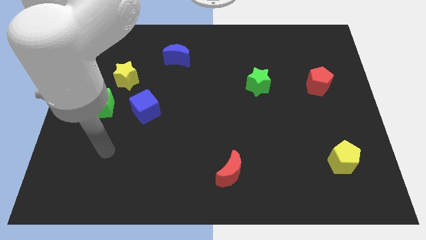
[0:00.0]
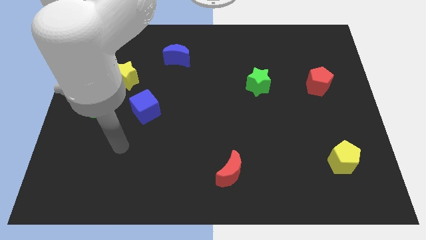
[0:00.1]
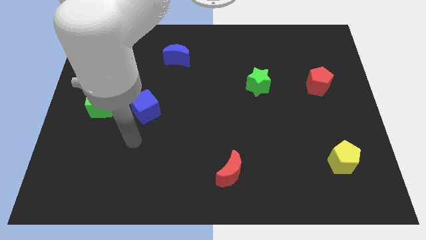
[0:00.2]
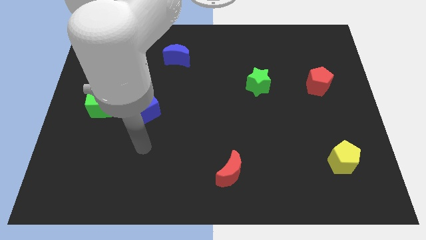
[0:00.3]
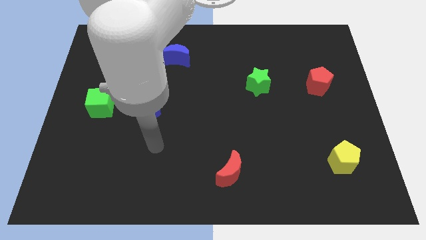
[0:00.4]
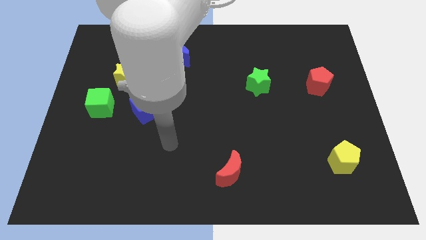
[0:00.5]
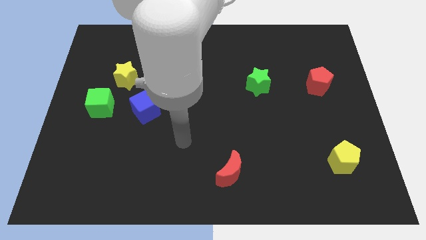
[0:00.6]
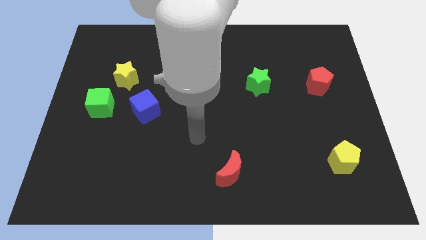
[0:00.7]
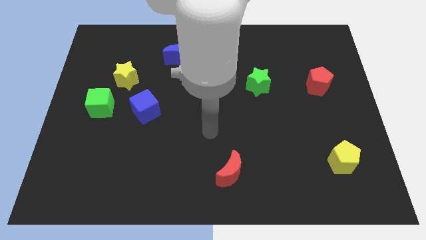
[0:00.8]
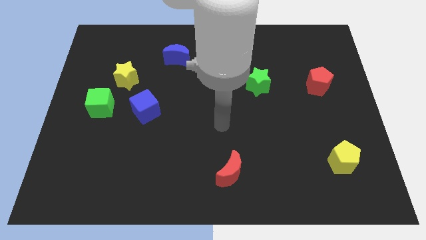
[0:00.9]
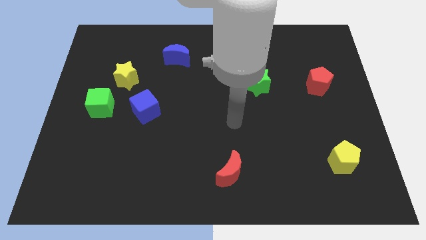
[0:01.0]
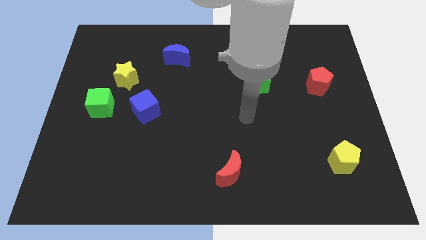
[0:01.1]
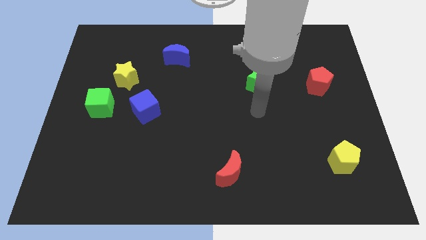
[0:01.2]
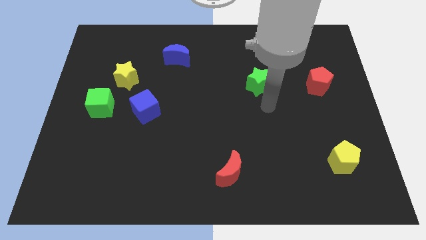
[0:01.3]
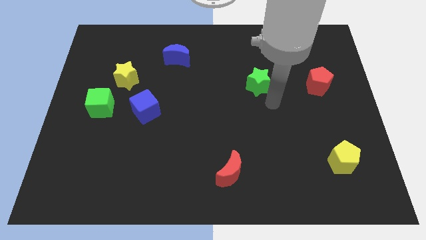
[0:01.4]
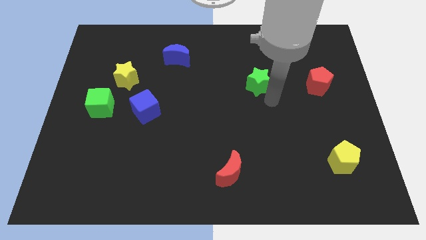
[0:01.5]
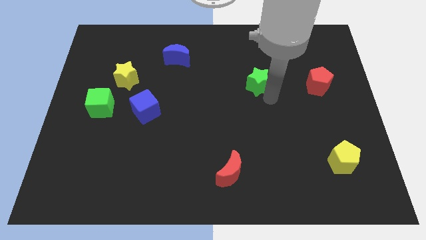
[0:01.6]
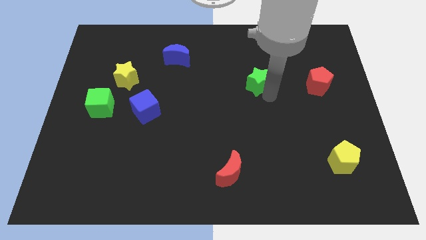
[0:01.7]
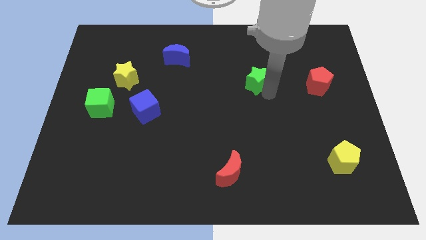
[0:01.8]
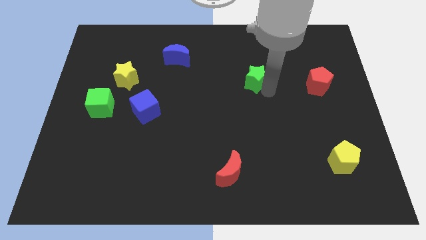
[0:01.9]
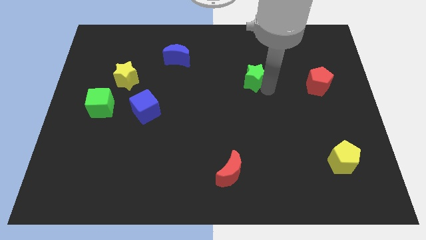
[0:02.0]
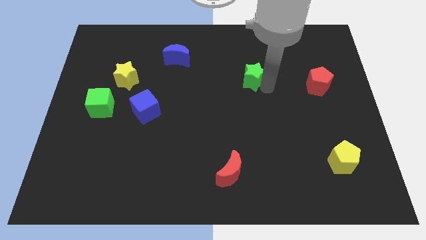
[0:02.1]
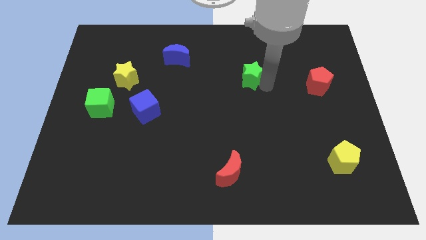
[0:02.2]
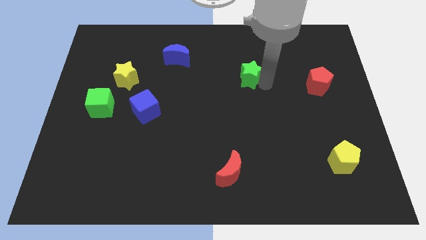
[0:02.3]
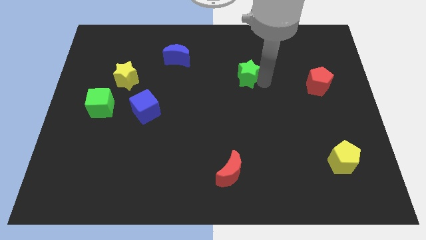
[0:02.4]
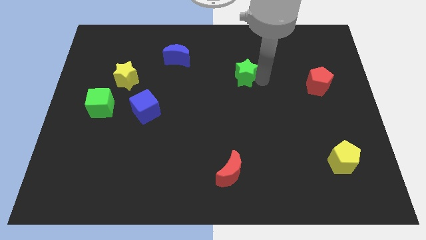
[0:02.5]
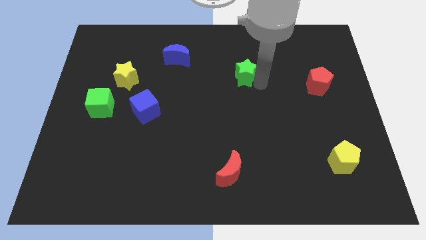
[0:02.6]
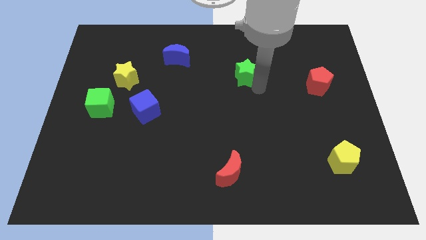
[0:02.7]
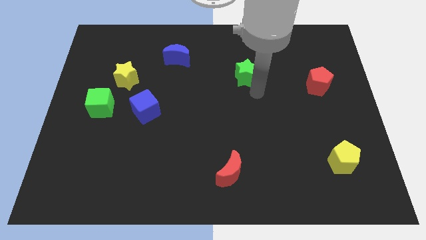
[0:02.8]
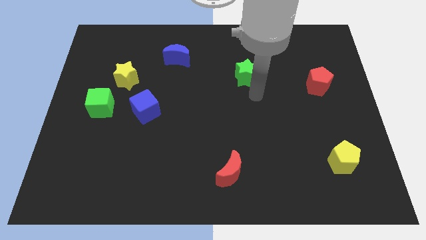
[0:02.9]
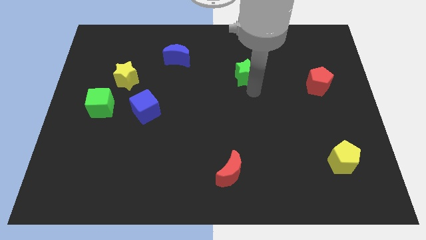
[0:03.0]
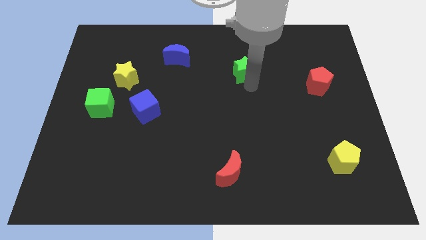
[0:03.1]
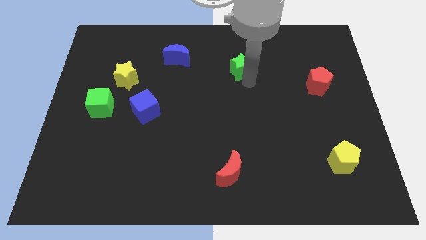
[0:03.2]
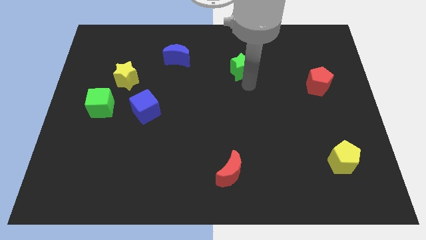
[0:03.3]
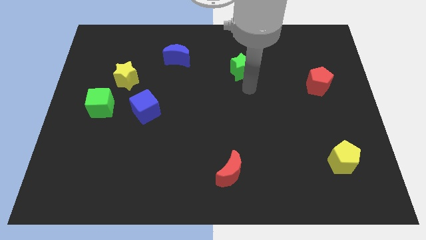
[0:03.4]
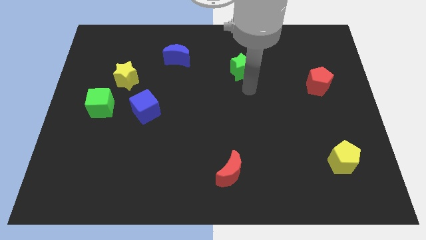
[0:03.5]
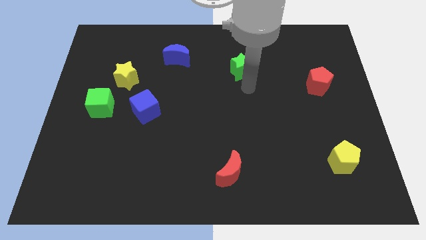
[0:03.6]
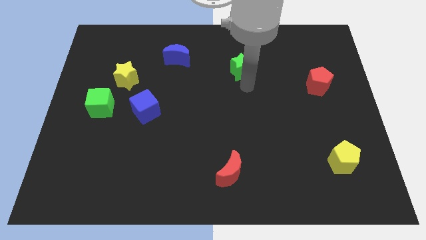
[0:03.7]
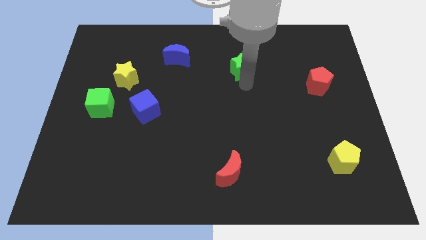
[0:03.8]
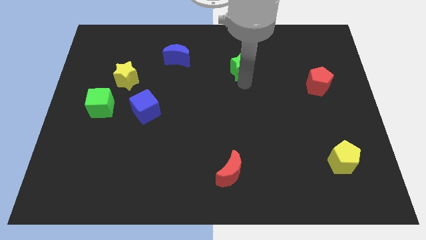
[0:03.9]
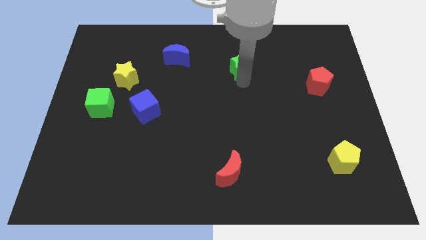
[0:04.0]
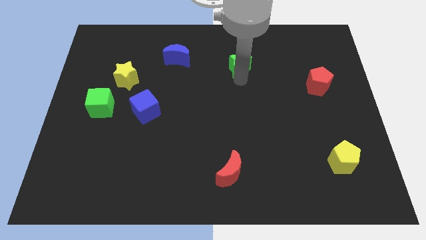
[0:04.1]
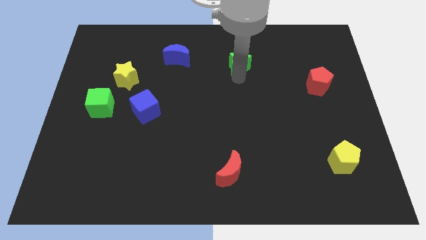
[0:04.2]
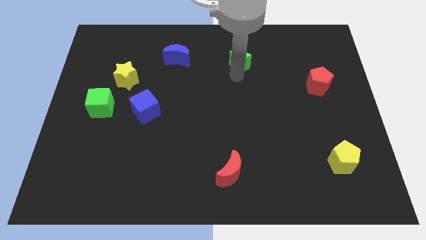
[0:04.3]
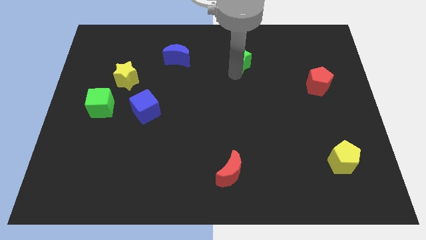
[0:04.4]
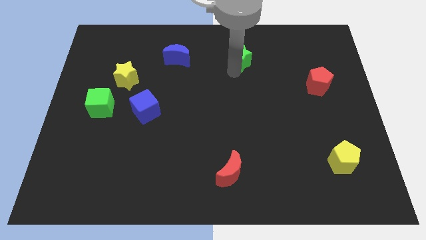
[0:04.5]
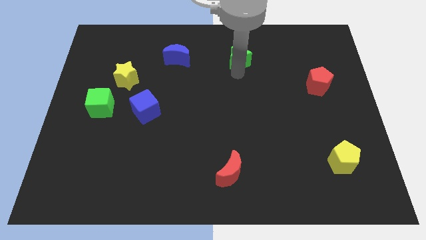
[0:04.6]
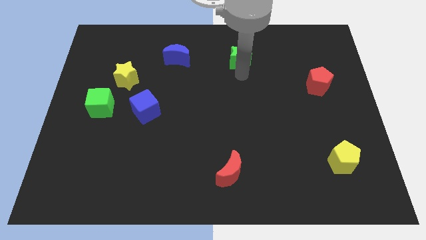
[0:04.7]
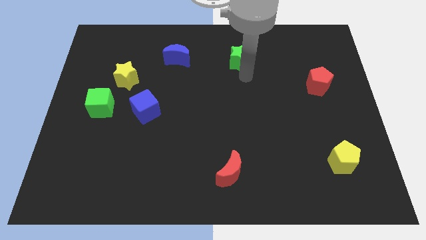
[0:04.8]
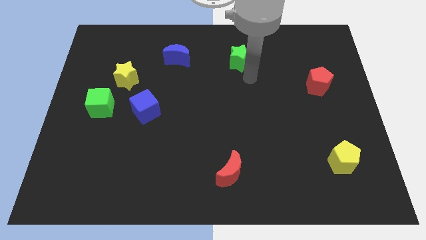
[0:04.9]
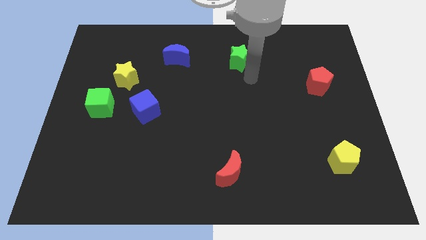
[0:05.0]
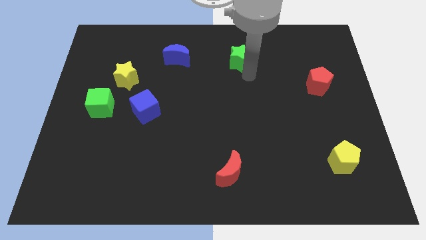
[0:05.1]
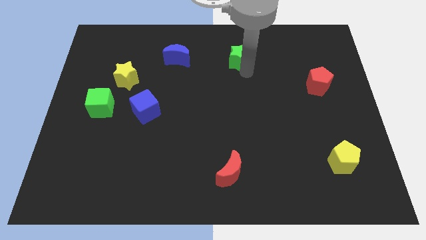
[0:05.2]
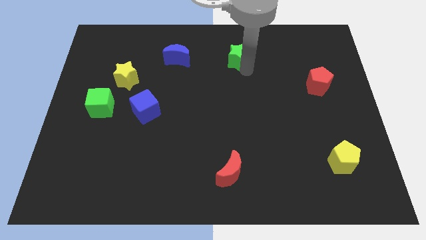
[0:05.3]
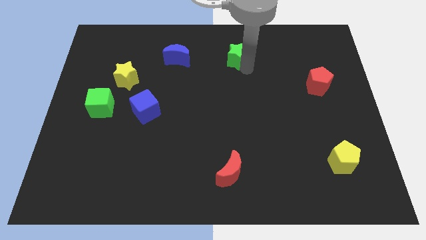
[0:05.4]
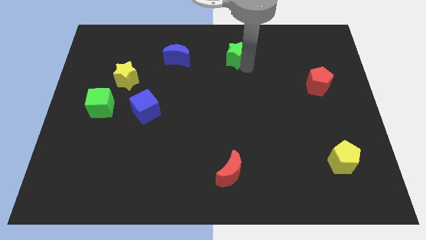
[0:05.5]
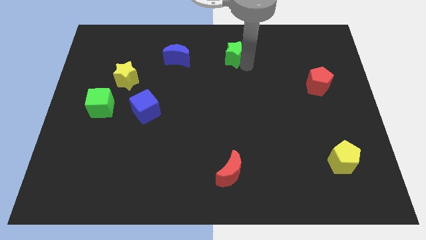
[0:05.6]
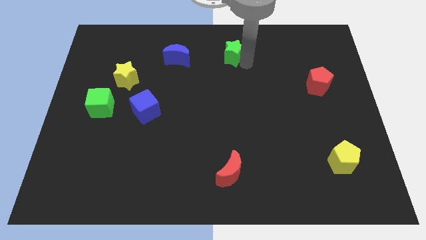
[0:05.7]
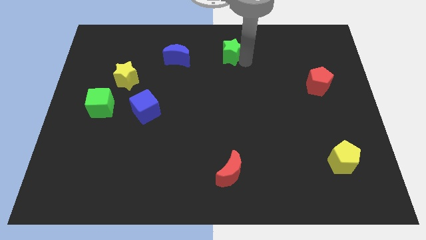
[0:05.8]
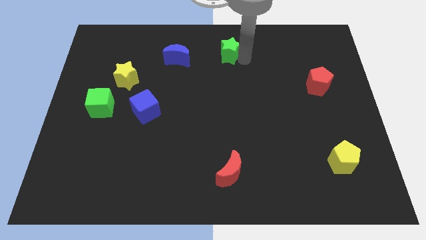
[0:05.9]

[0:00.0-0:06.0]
slide the green star to the top

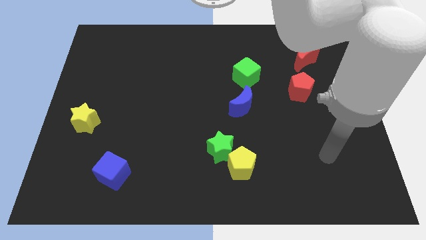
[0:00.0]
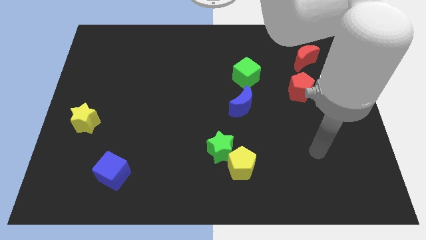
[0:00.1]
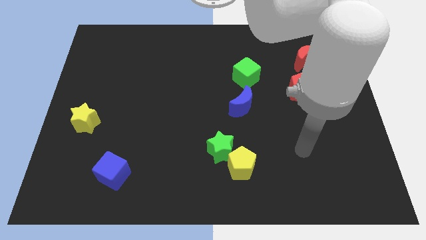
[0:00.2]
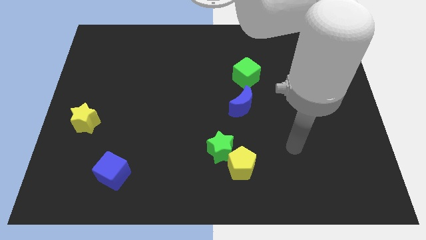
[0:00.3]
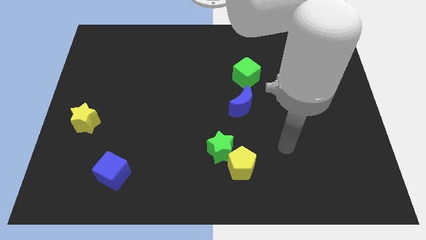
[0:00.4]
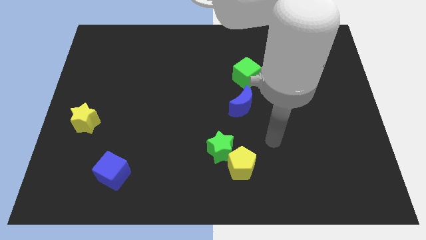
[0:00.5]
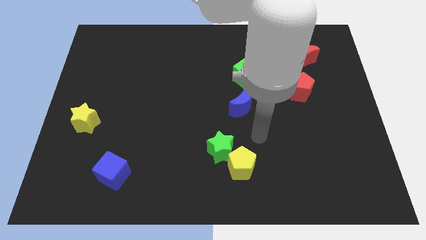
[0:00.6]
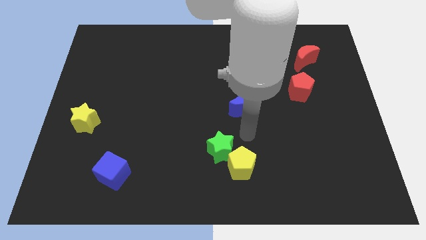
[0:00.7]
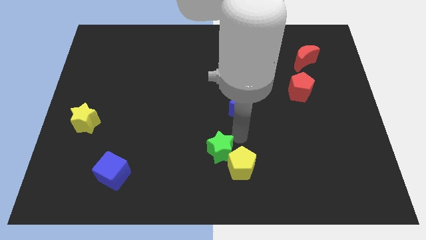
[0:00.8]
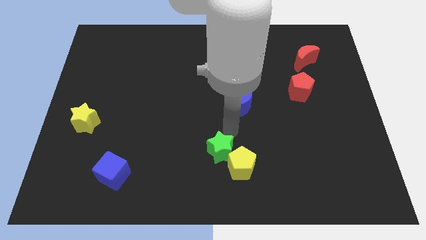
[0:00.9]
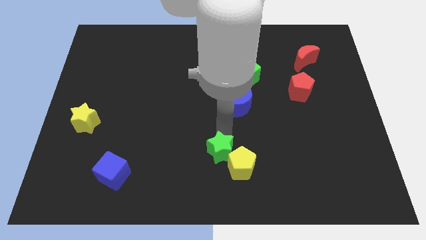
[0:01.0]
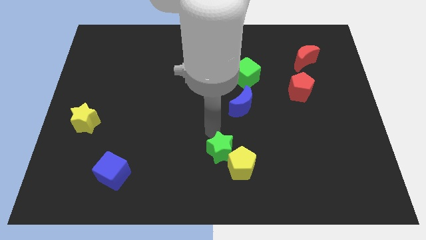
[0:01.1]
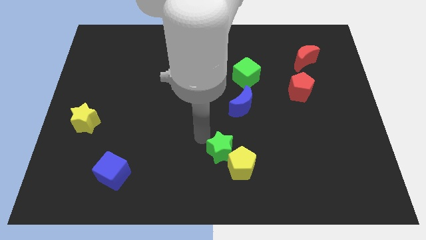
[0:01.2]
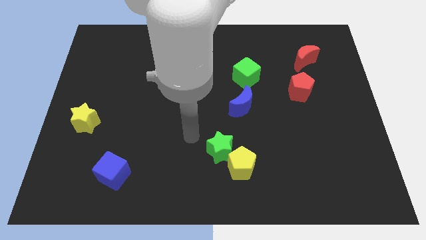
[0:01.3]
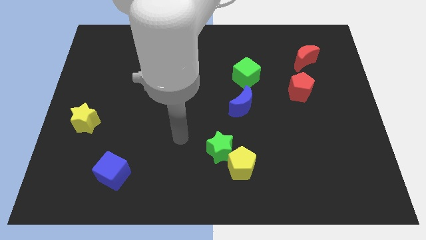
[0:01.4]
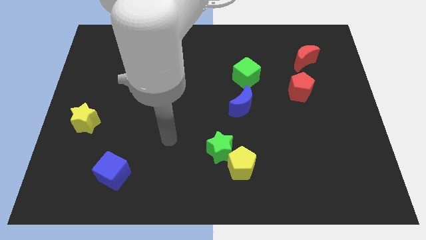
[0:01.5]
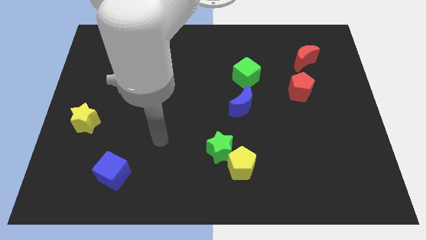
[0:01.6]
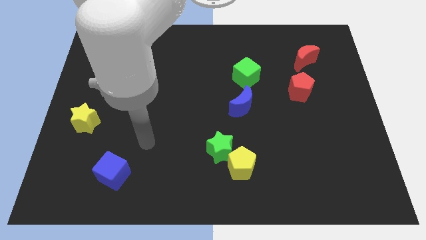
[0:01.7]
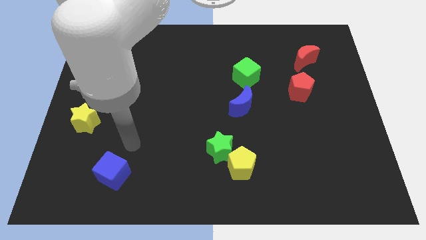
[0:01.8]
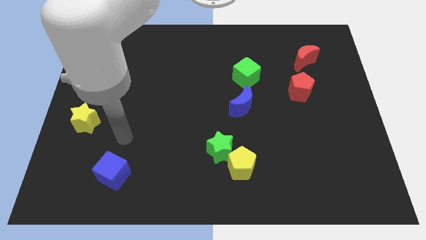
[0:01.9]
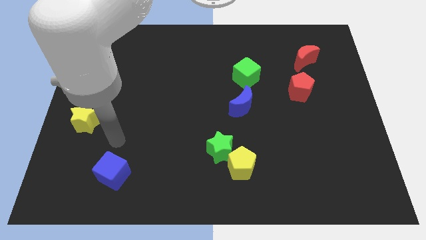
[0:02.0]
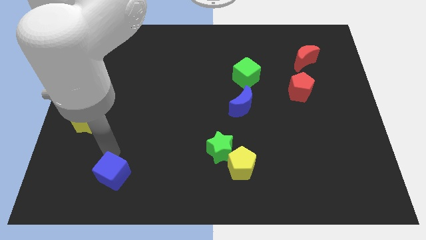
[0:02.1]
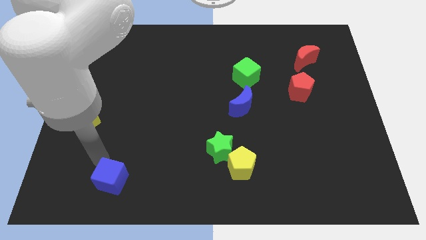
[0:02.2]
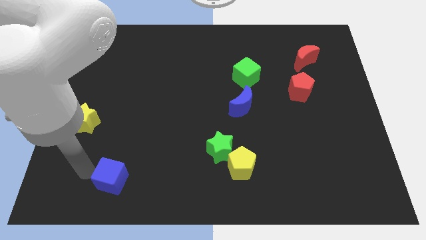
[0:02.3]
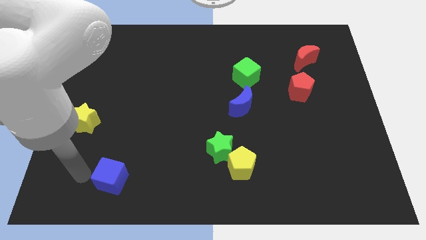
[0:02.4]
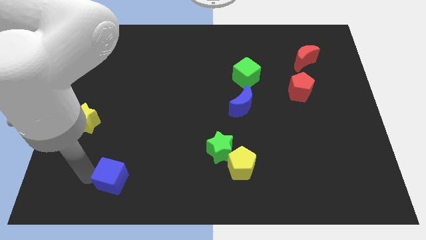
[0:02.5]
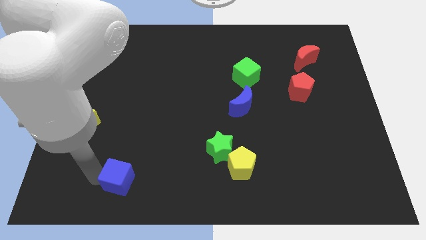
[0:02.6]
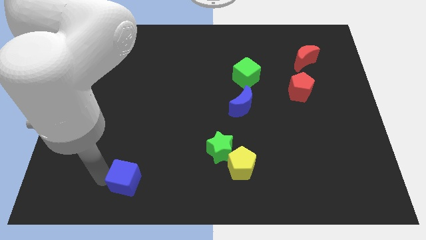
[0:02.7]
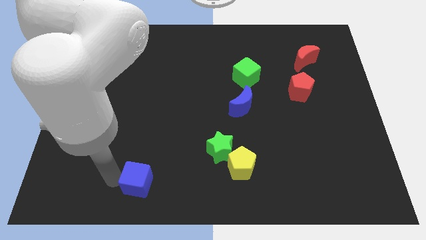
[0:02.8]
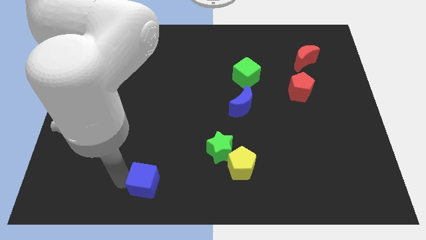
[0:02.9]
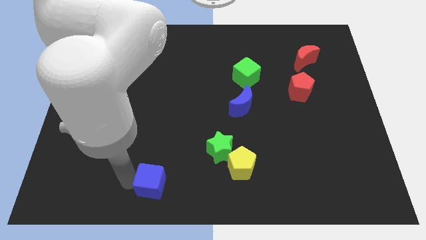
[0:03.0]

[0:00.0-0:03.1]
slide the blue cube to the bottom side
